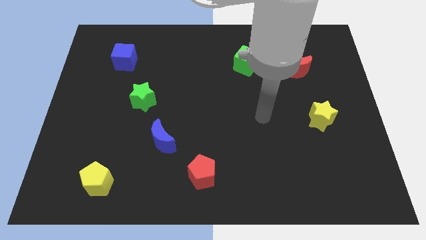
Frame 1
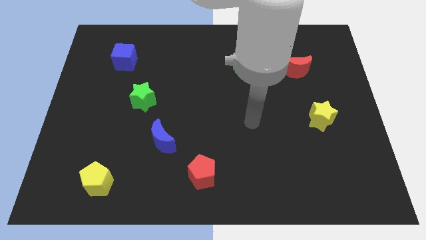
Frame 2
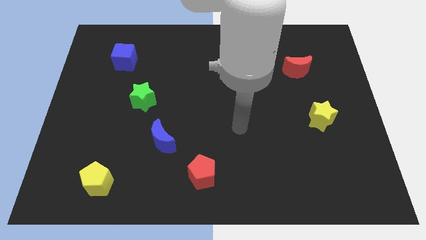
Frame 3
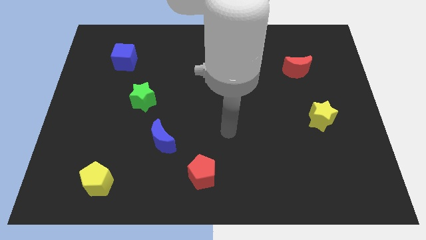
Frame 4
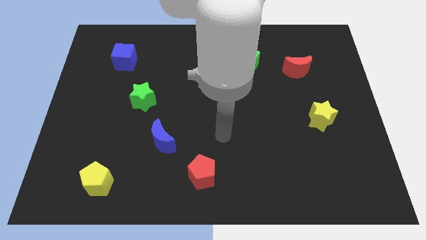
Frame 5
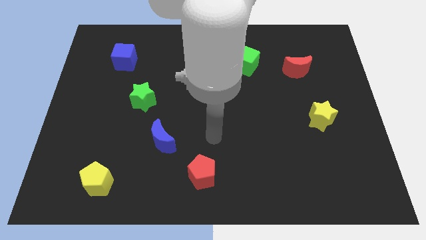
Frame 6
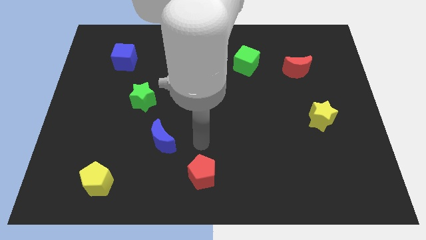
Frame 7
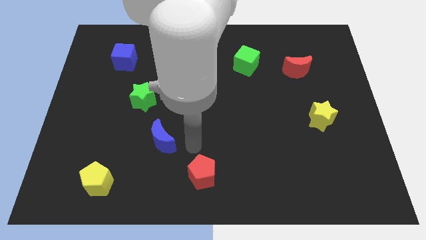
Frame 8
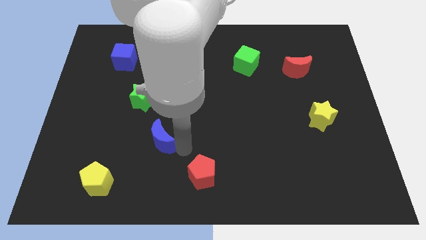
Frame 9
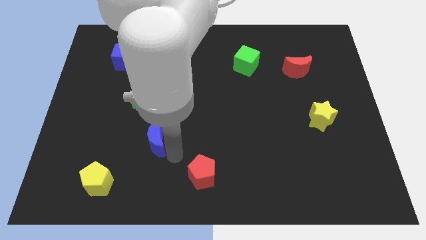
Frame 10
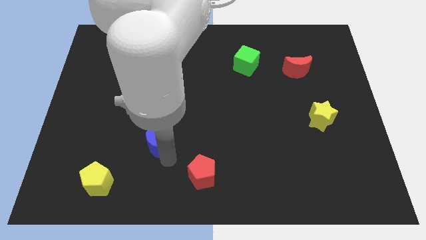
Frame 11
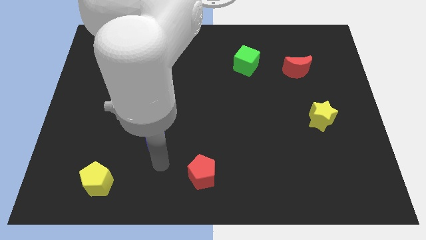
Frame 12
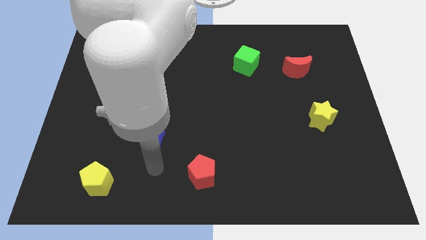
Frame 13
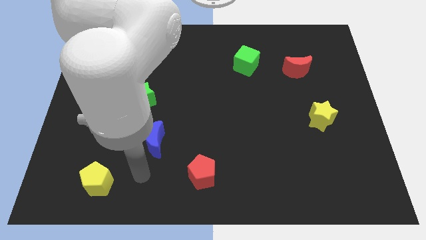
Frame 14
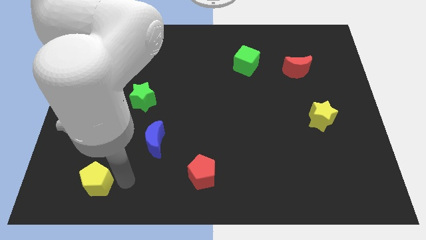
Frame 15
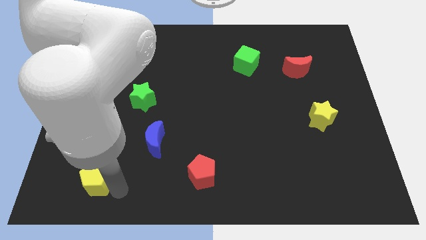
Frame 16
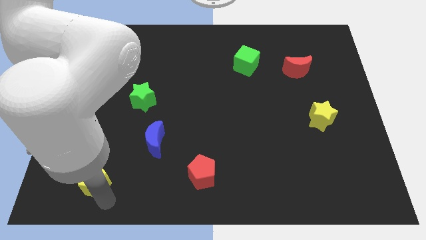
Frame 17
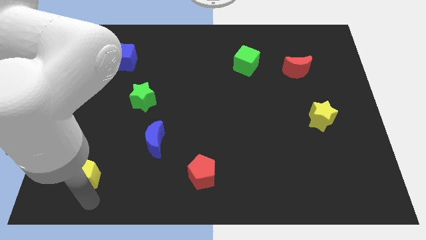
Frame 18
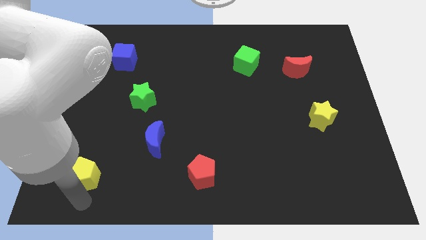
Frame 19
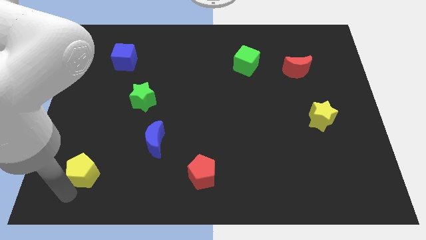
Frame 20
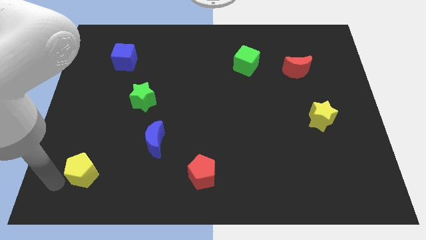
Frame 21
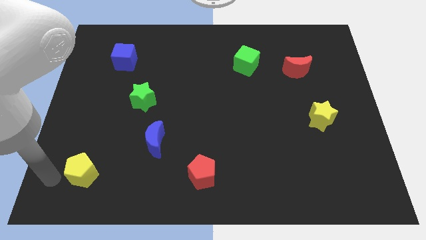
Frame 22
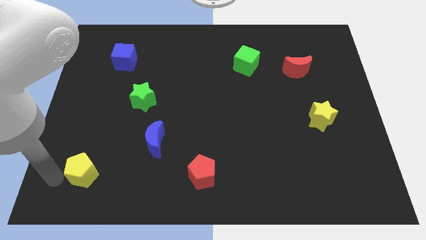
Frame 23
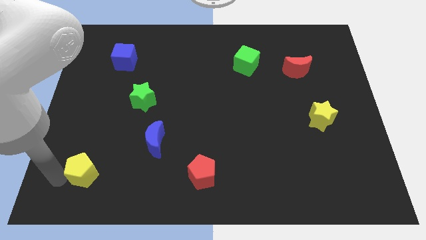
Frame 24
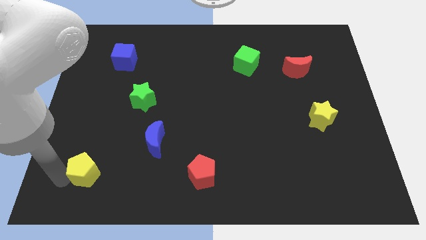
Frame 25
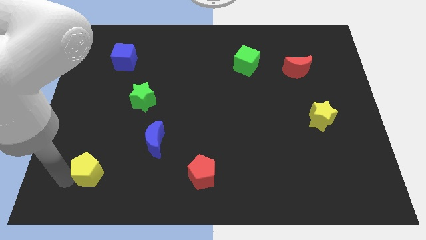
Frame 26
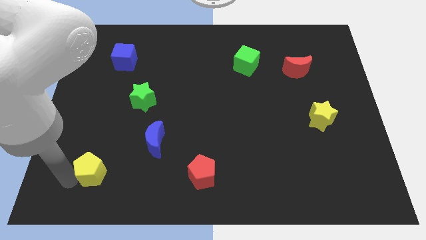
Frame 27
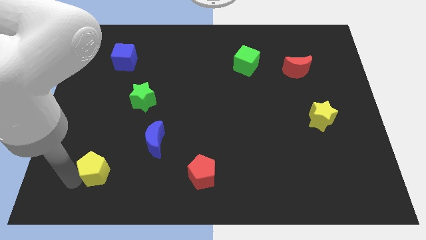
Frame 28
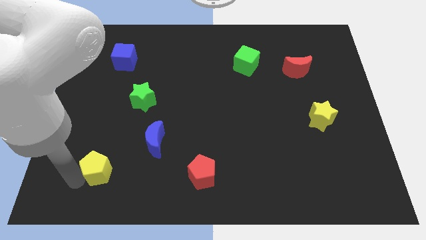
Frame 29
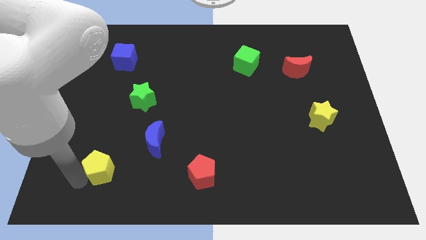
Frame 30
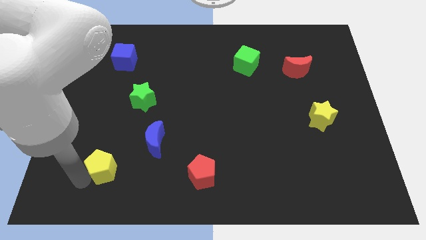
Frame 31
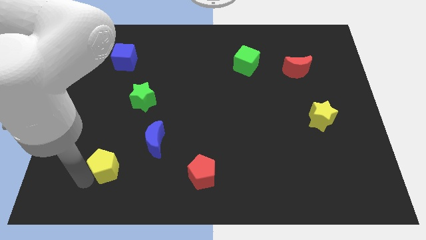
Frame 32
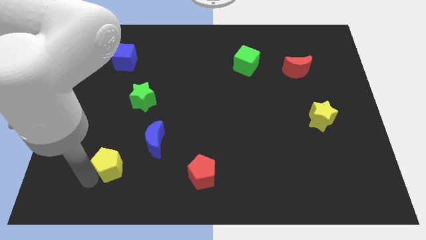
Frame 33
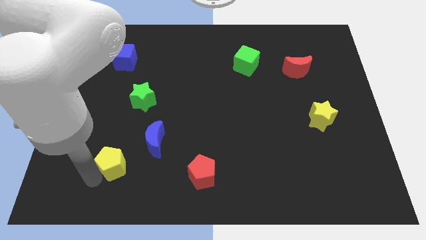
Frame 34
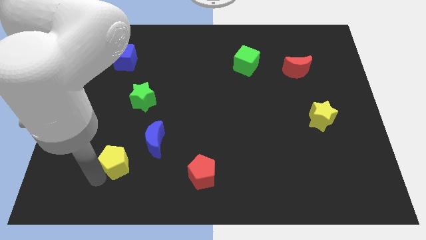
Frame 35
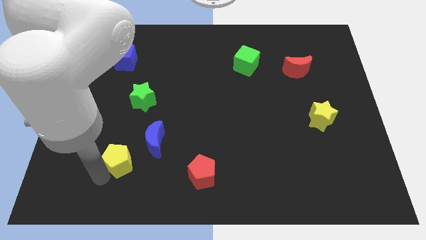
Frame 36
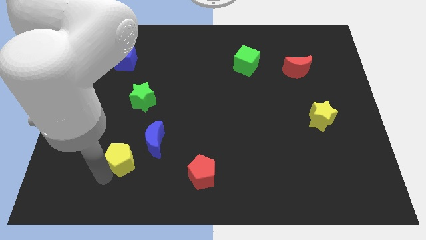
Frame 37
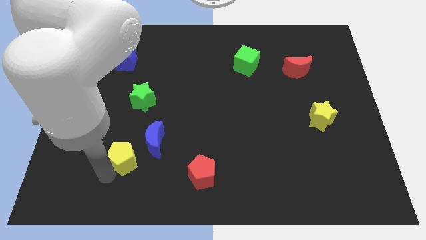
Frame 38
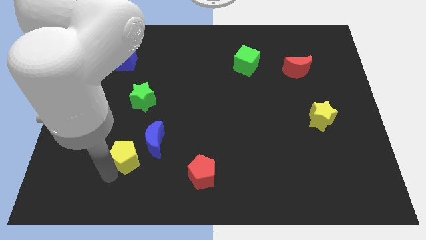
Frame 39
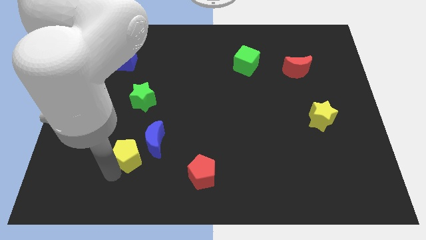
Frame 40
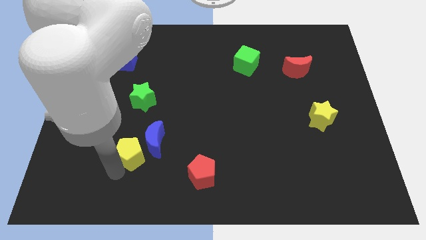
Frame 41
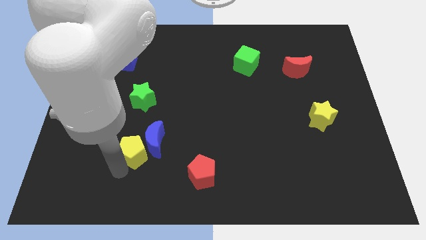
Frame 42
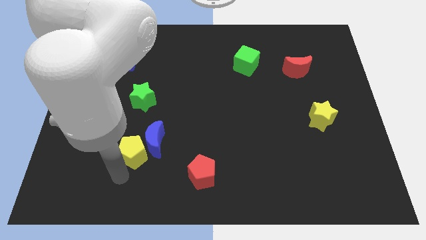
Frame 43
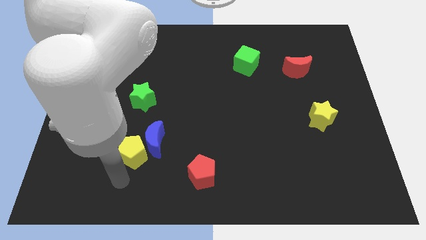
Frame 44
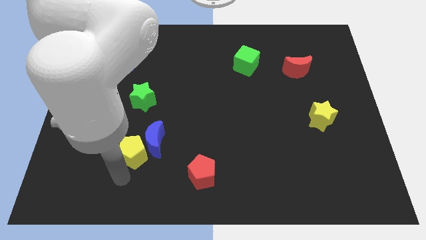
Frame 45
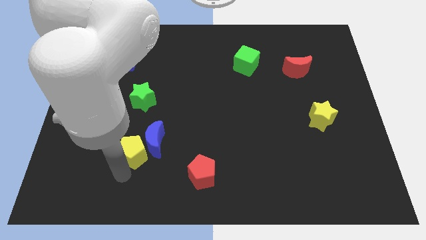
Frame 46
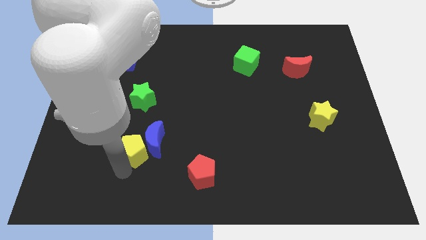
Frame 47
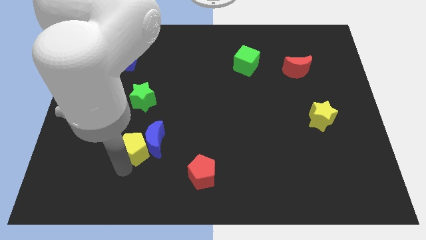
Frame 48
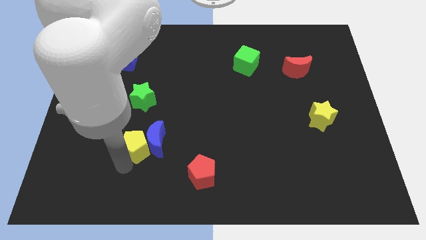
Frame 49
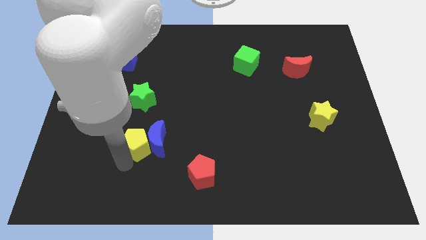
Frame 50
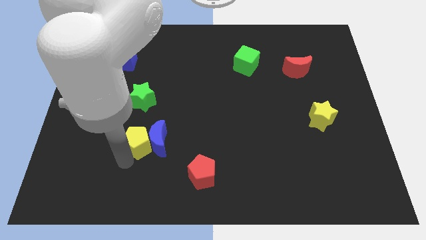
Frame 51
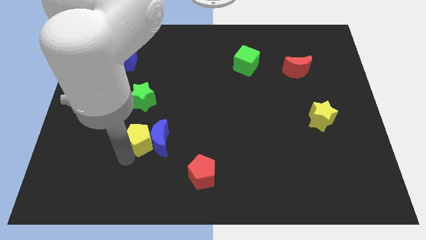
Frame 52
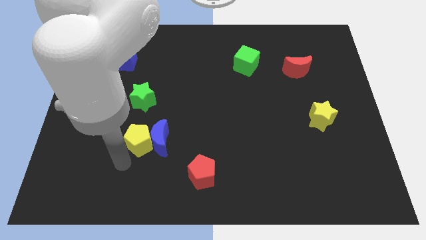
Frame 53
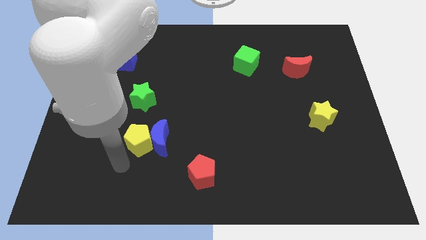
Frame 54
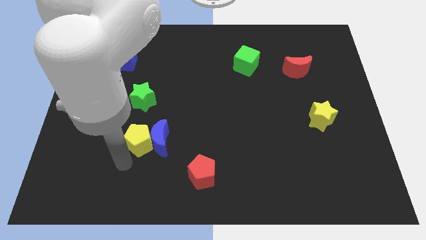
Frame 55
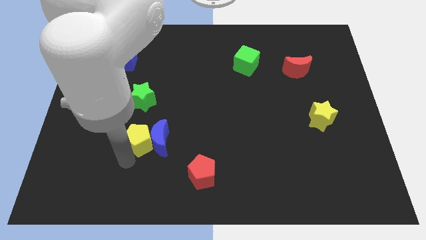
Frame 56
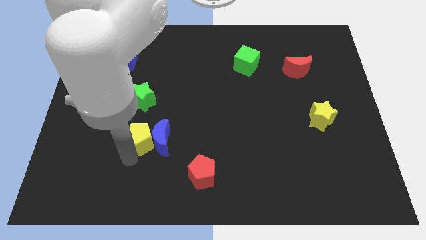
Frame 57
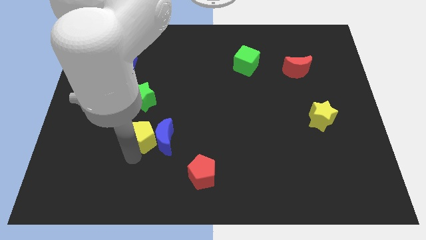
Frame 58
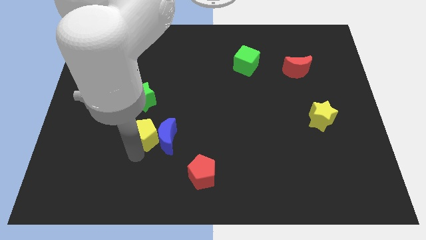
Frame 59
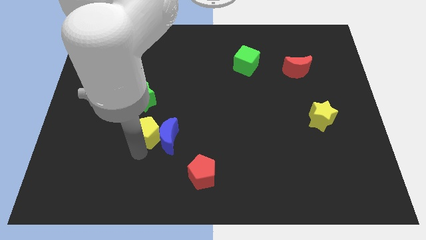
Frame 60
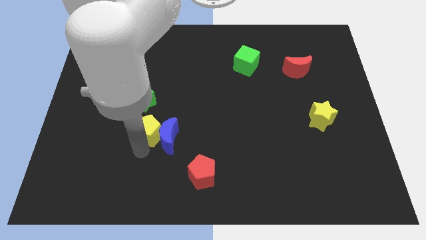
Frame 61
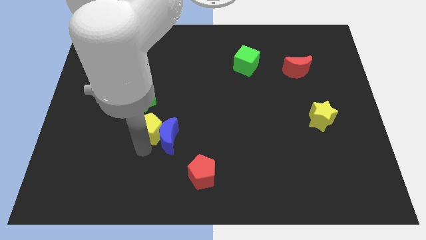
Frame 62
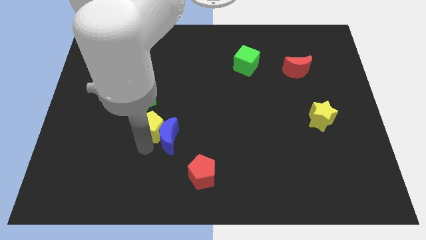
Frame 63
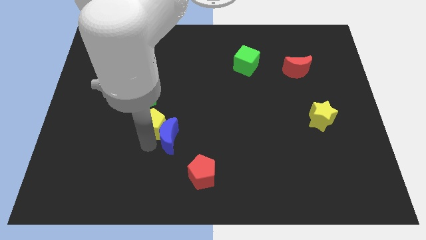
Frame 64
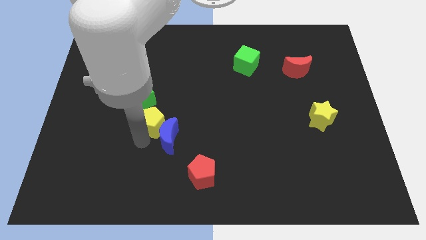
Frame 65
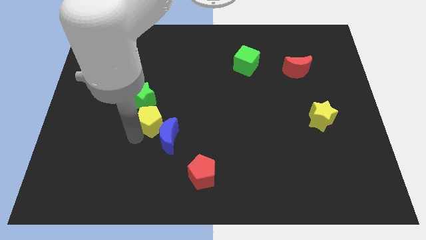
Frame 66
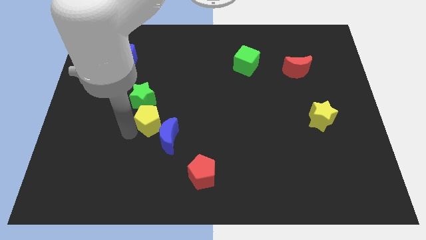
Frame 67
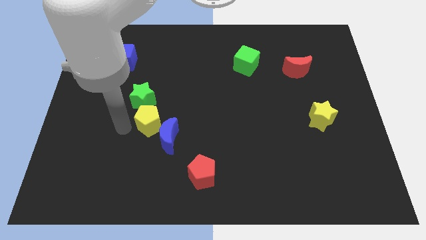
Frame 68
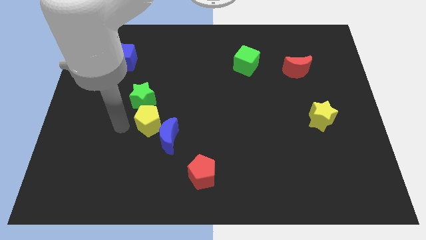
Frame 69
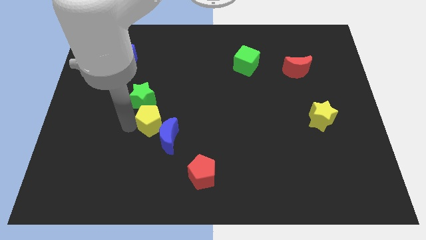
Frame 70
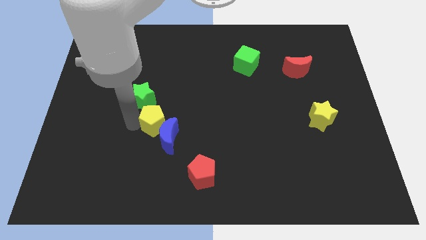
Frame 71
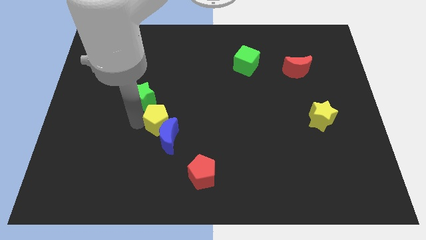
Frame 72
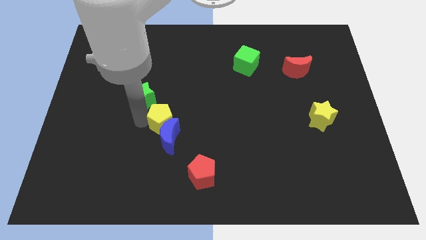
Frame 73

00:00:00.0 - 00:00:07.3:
put the yellow pentagon to the top right of the blue moon
